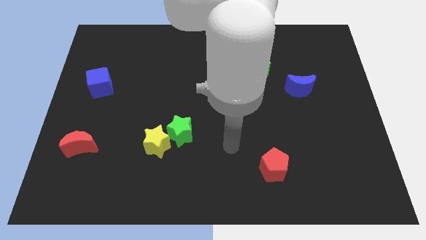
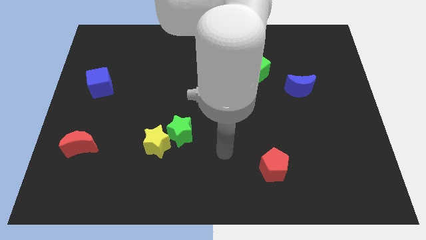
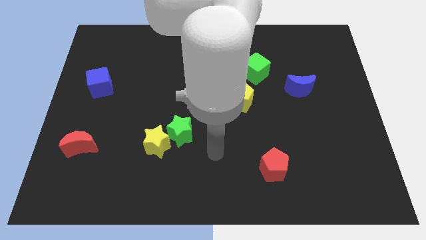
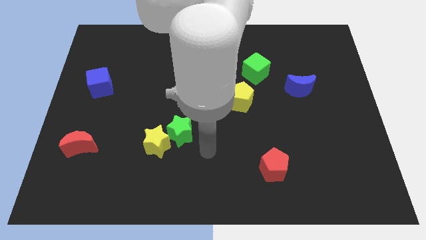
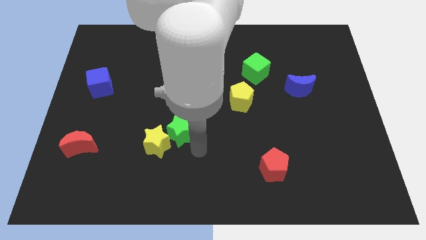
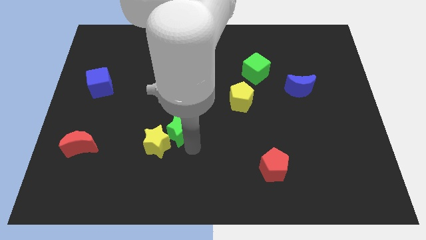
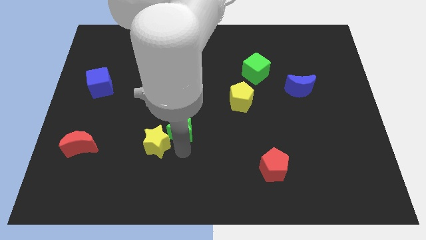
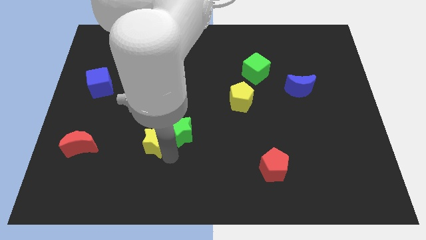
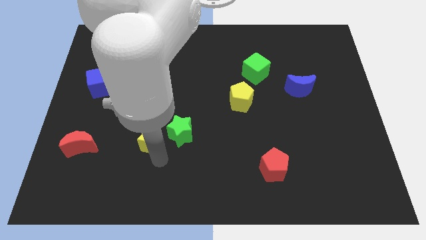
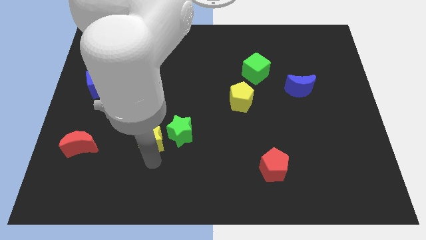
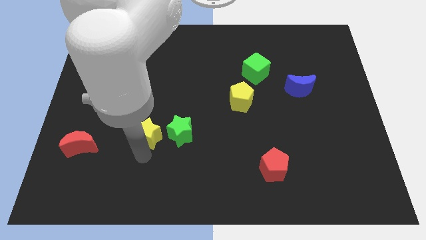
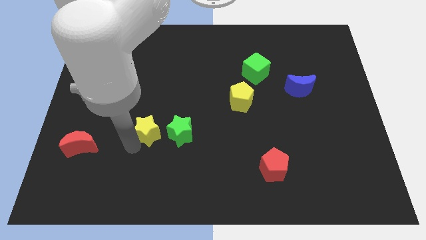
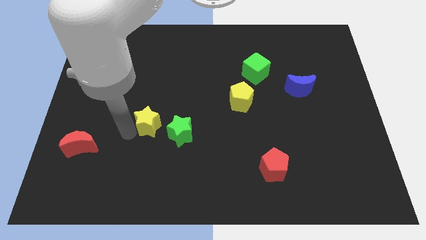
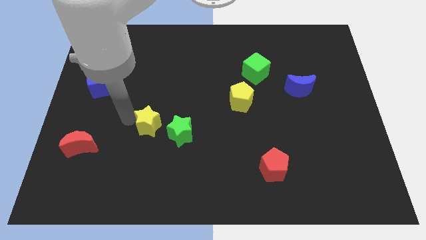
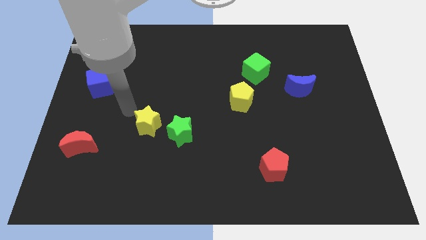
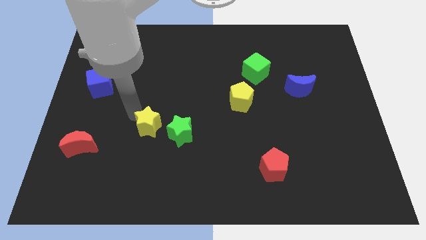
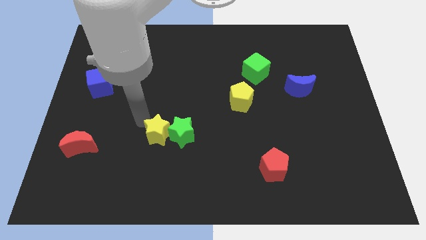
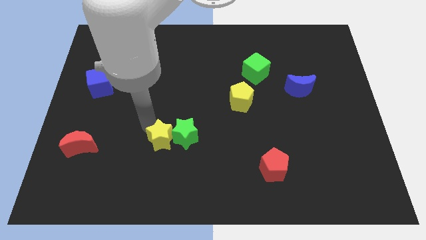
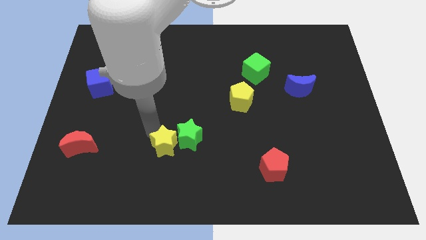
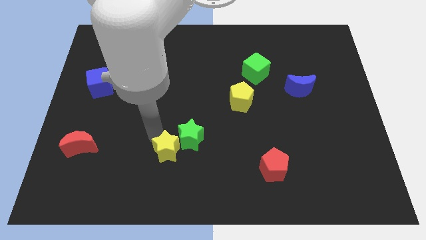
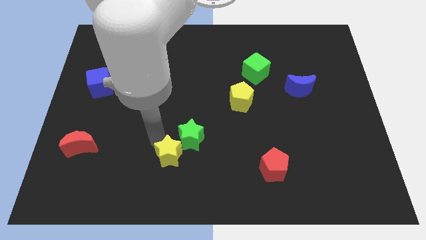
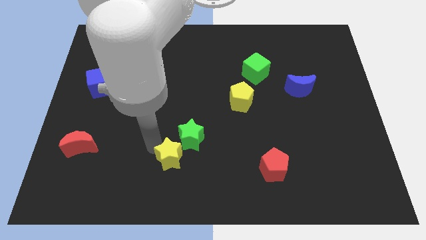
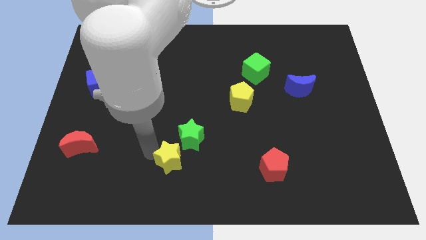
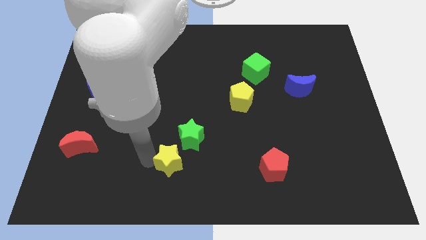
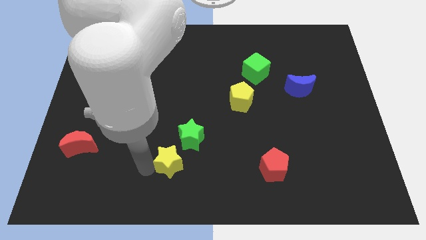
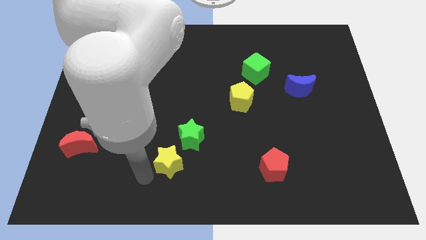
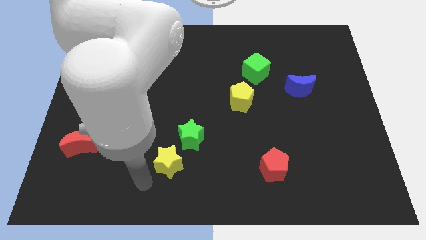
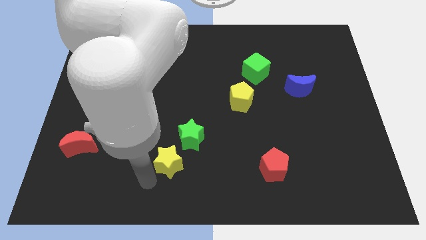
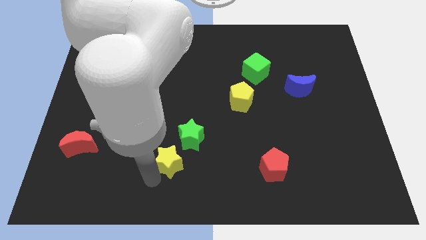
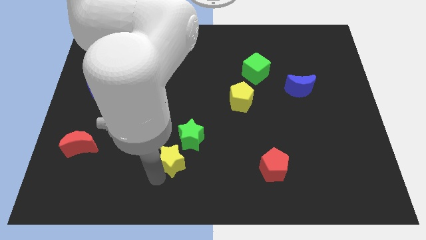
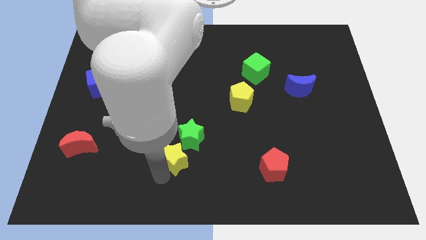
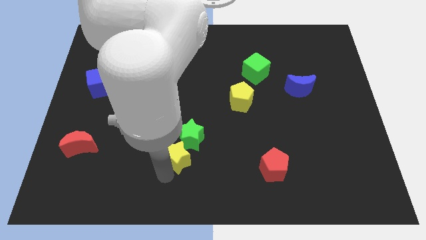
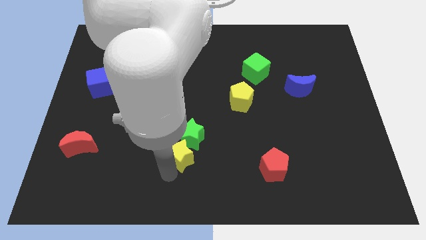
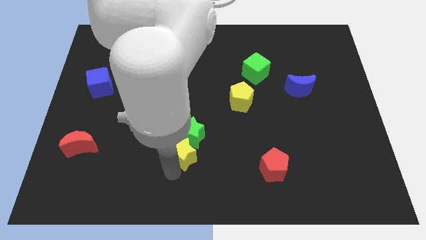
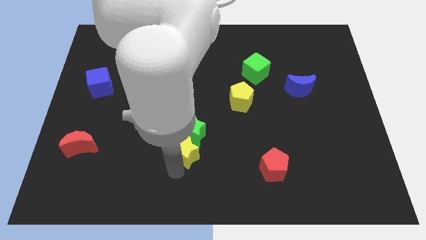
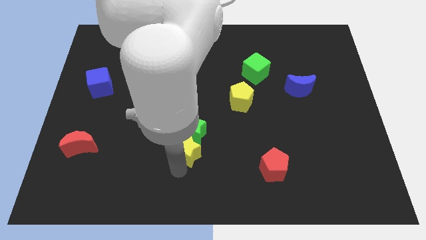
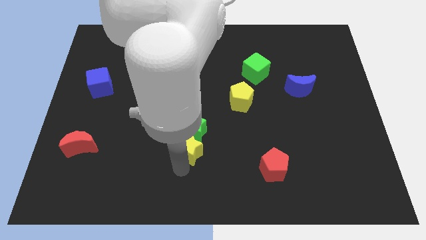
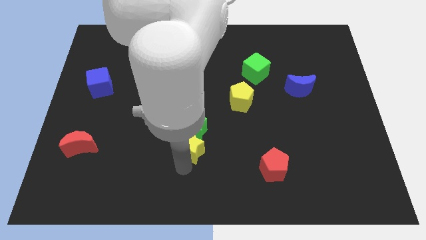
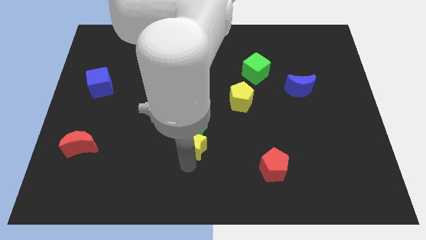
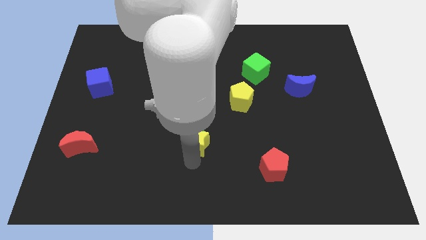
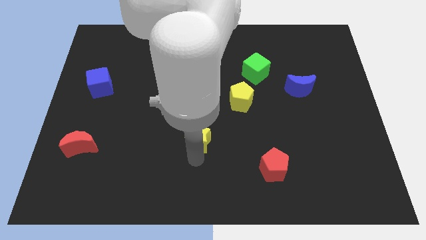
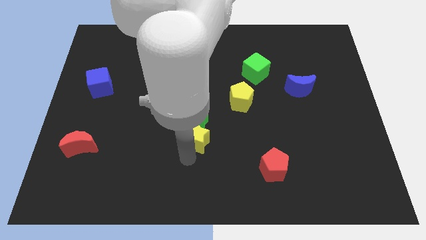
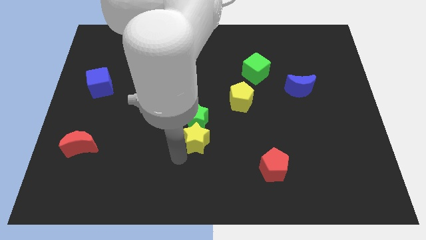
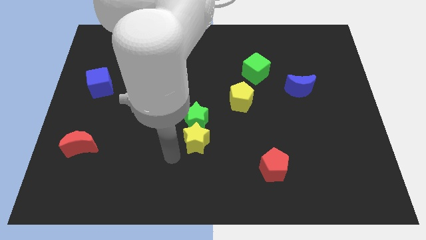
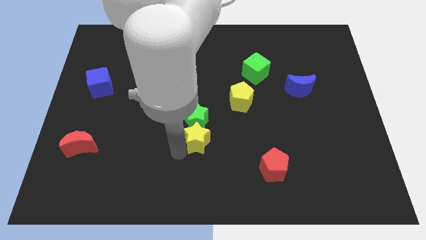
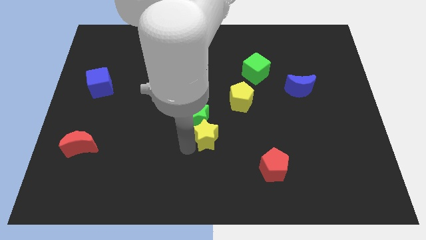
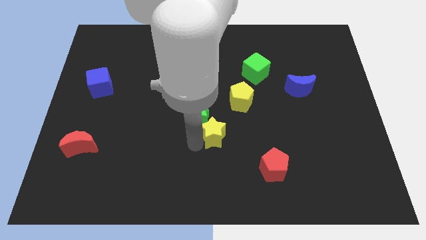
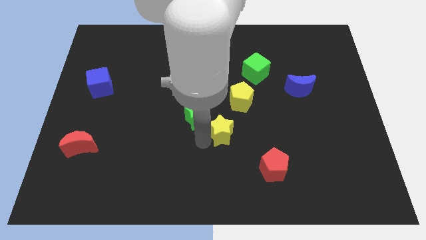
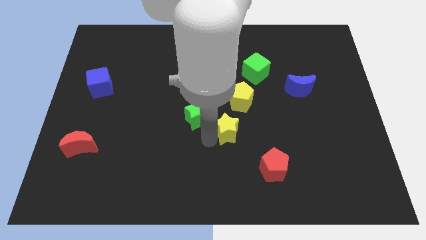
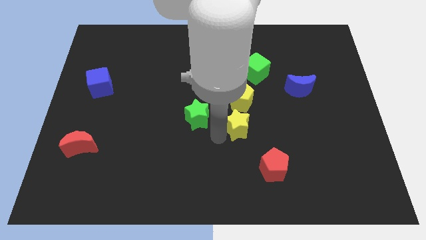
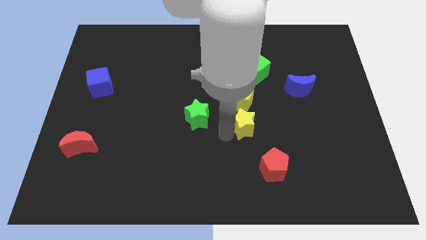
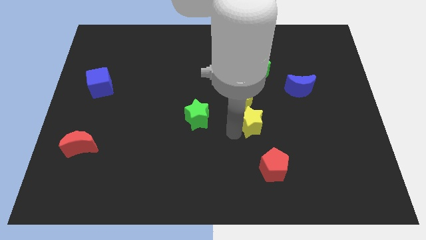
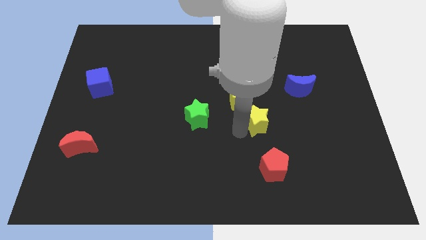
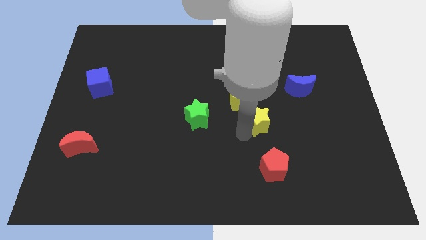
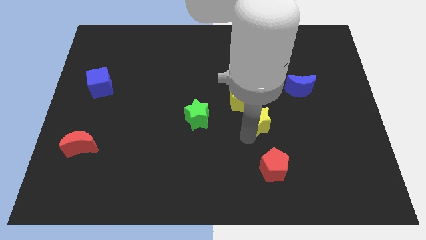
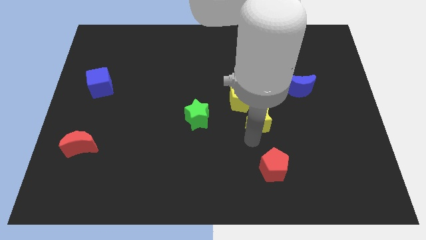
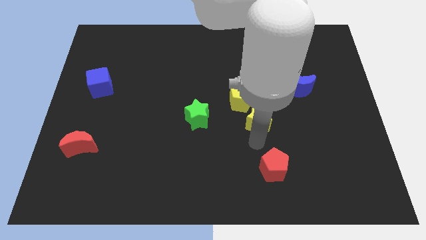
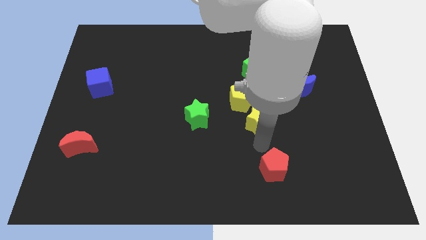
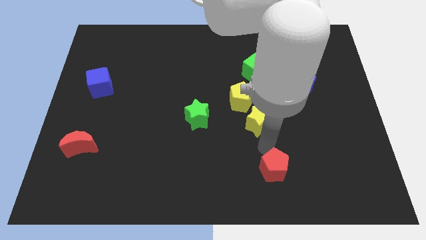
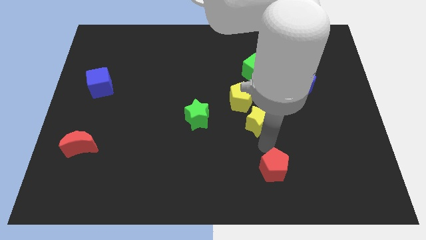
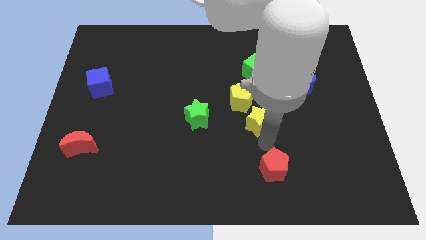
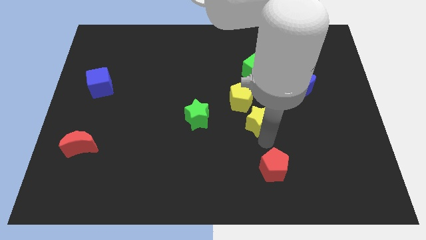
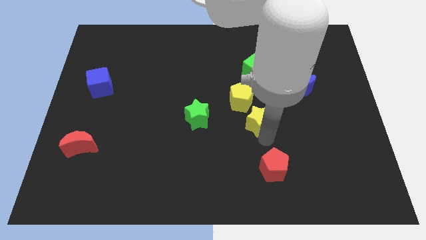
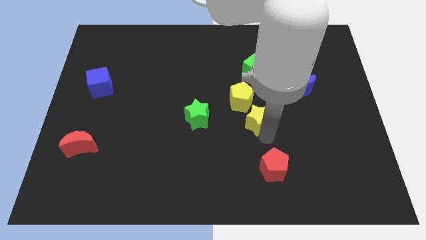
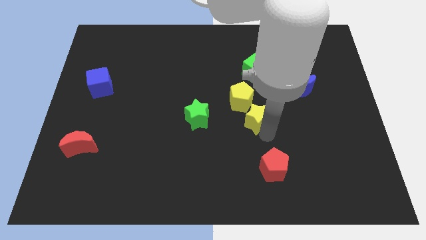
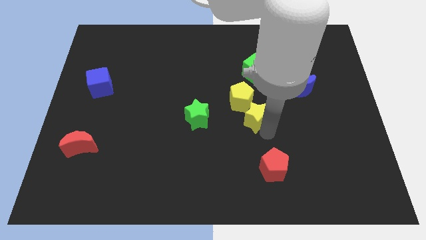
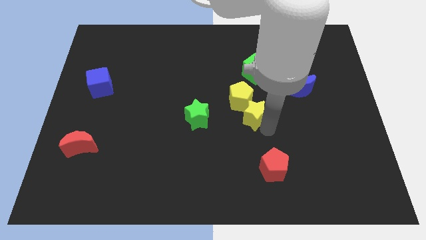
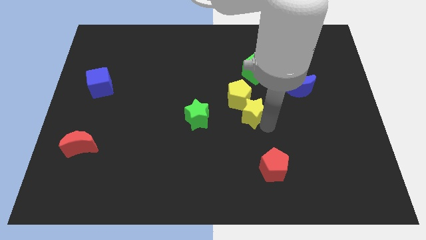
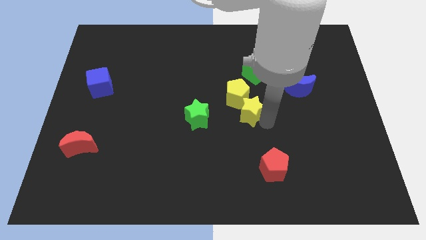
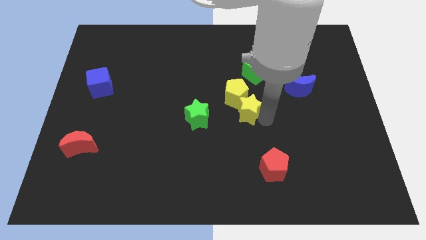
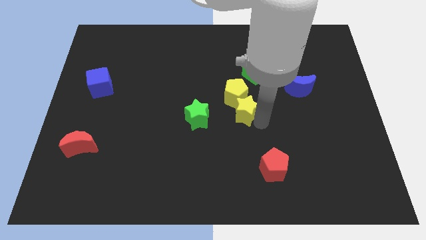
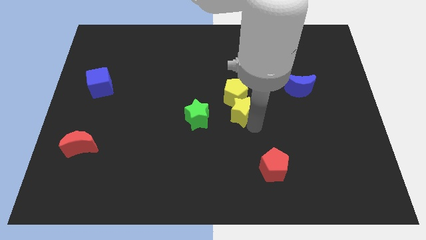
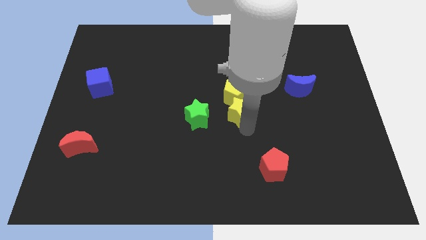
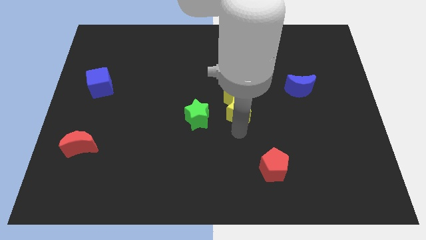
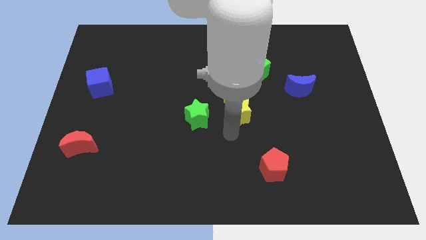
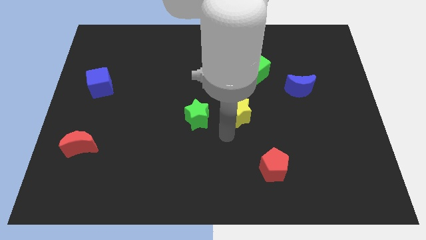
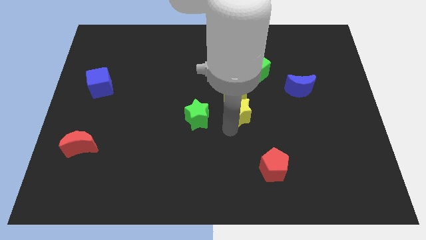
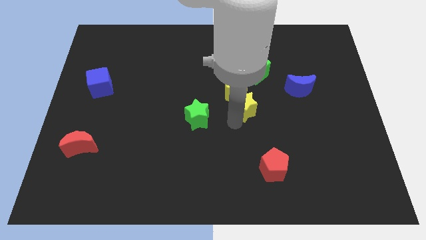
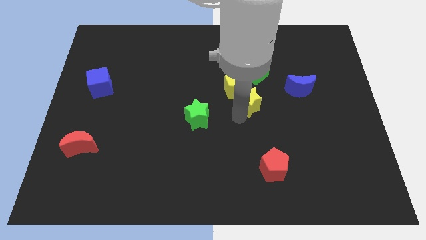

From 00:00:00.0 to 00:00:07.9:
push the yellow star to the left side of the blue moon
